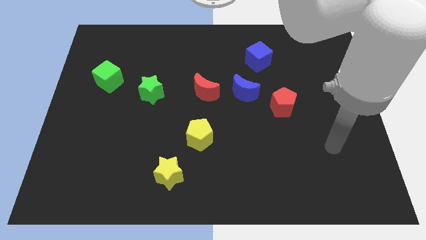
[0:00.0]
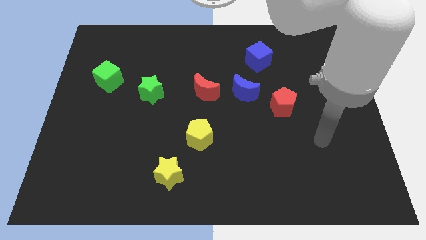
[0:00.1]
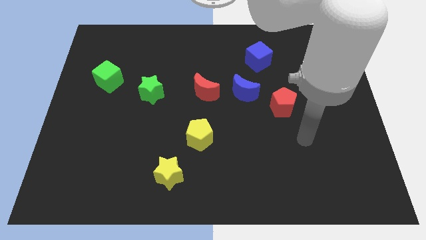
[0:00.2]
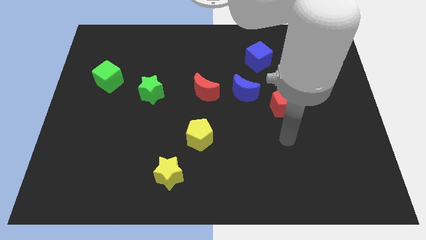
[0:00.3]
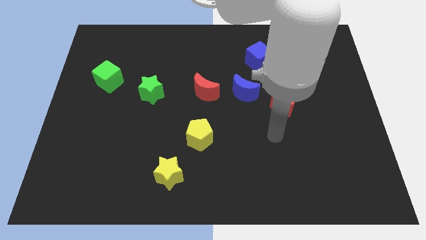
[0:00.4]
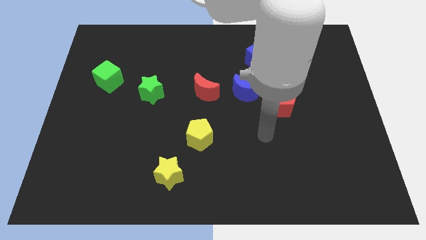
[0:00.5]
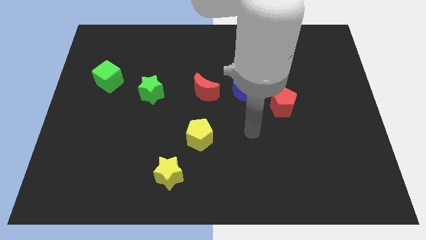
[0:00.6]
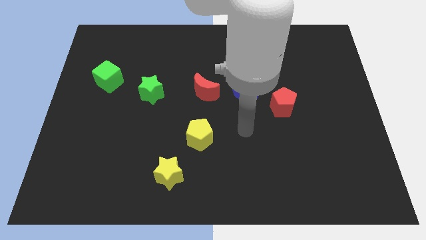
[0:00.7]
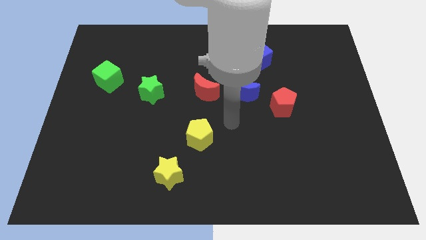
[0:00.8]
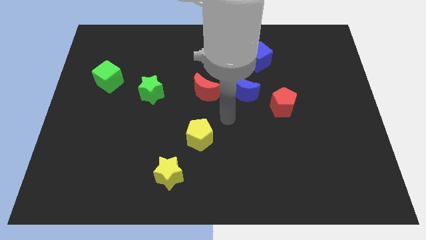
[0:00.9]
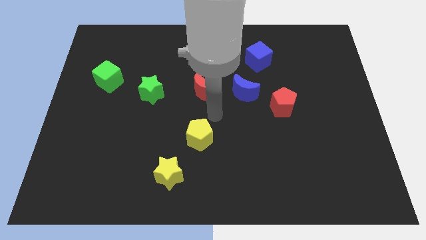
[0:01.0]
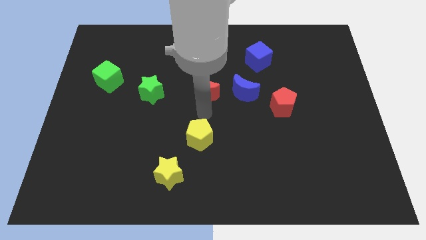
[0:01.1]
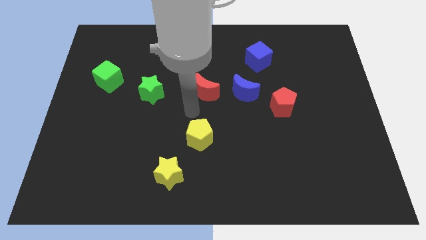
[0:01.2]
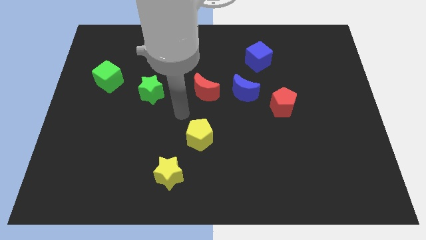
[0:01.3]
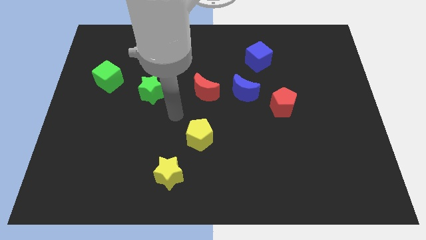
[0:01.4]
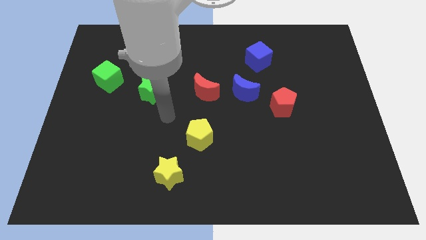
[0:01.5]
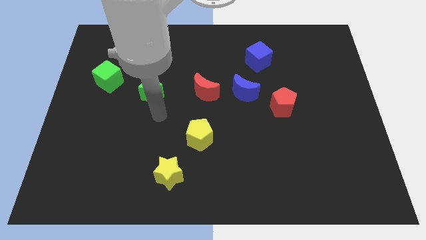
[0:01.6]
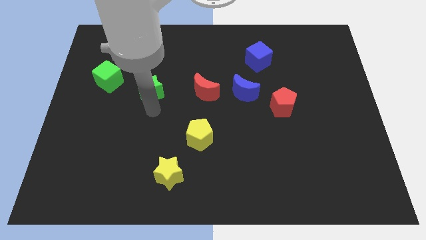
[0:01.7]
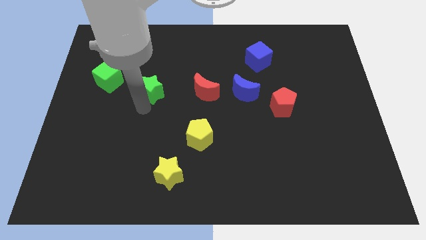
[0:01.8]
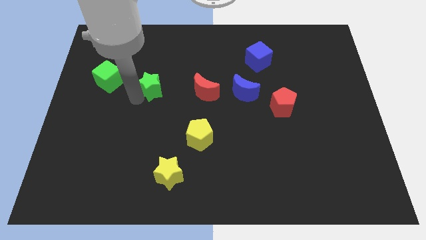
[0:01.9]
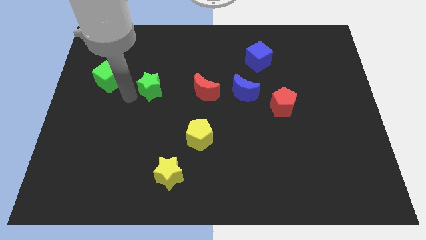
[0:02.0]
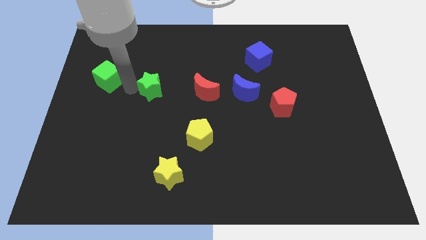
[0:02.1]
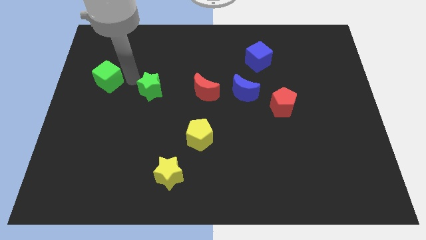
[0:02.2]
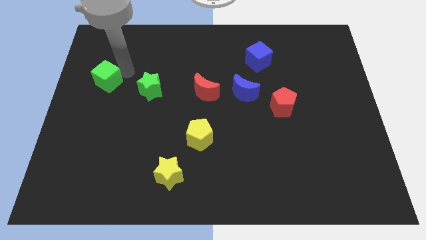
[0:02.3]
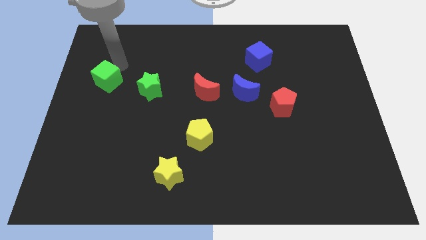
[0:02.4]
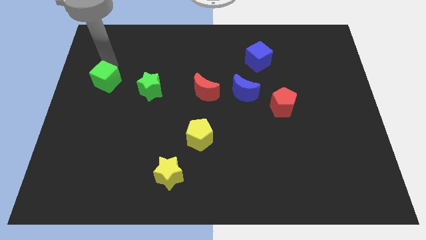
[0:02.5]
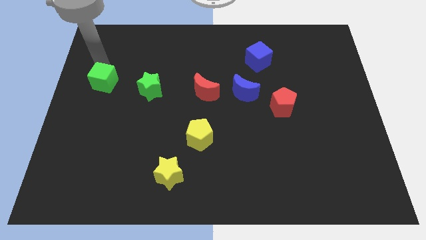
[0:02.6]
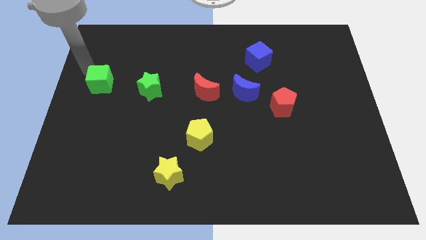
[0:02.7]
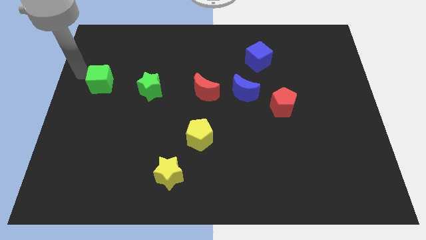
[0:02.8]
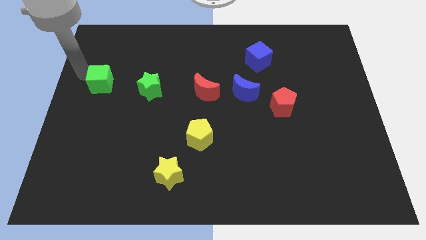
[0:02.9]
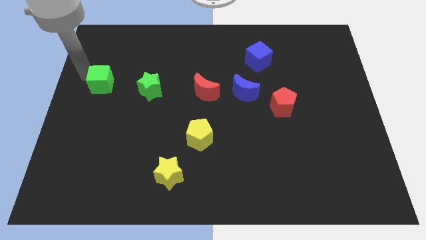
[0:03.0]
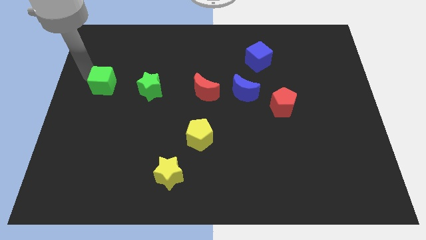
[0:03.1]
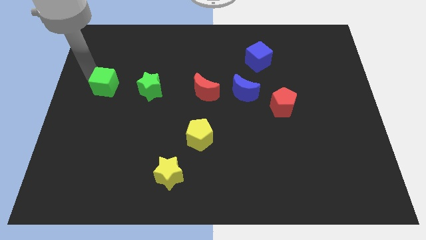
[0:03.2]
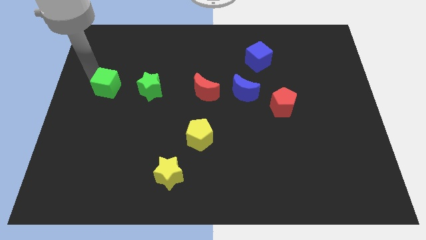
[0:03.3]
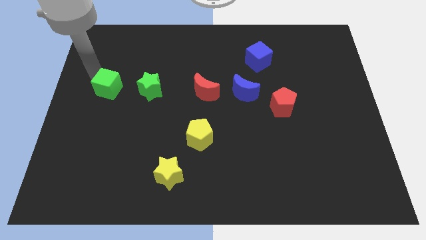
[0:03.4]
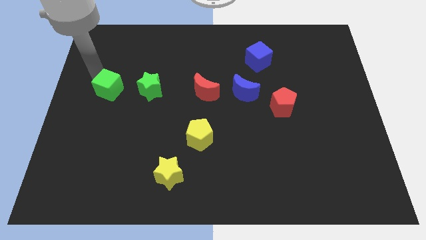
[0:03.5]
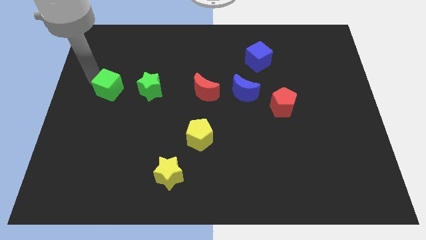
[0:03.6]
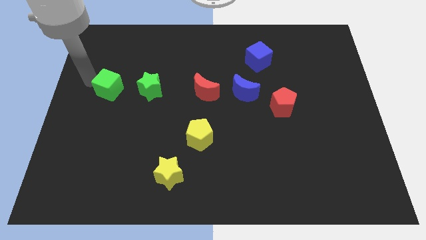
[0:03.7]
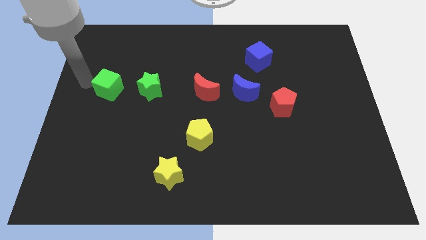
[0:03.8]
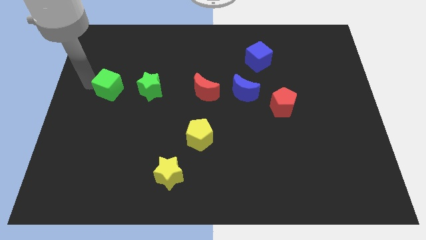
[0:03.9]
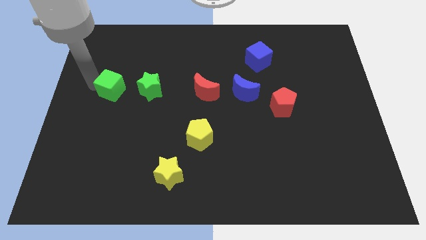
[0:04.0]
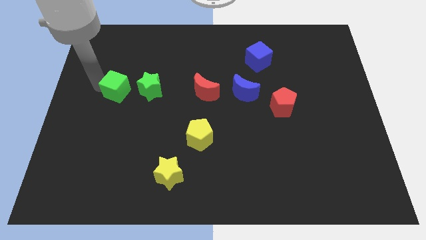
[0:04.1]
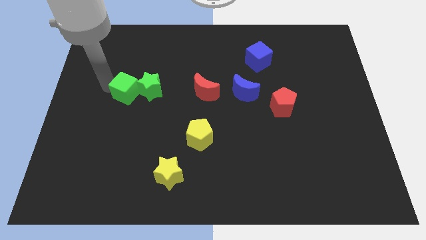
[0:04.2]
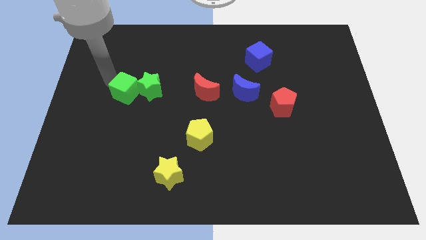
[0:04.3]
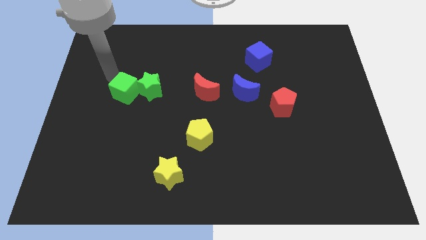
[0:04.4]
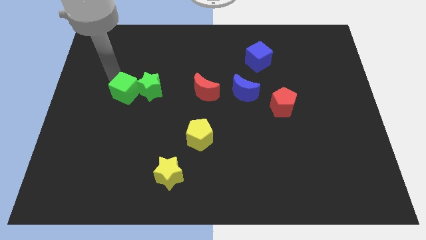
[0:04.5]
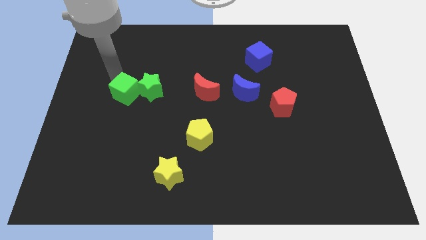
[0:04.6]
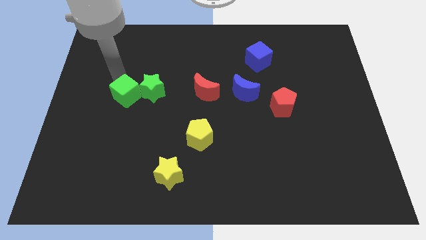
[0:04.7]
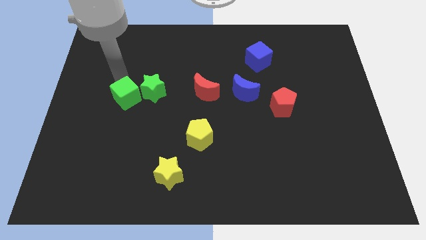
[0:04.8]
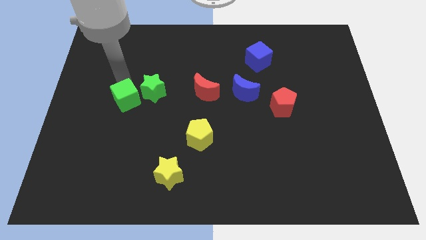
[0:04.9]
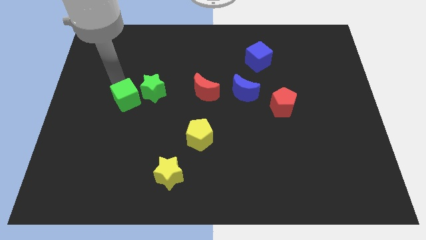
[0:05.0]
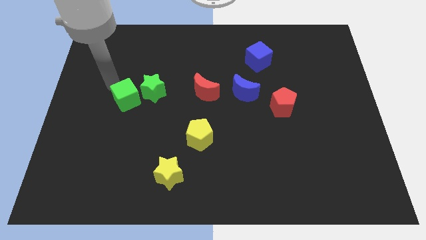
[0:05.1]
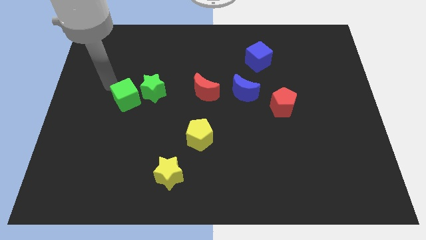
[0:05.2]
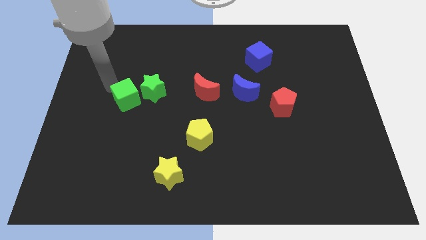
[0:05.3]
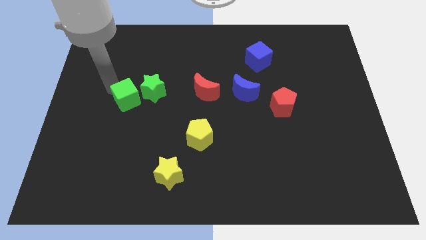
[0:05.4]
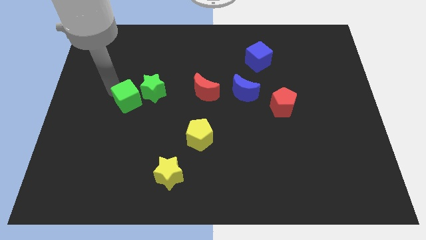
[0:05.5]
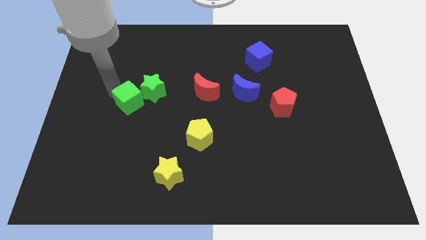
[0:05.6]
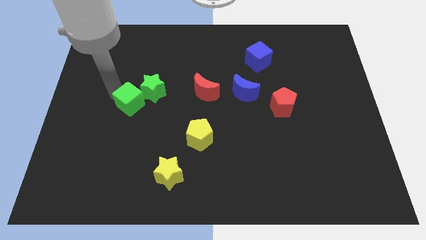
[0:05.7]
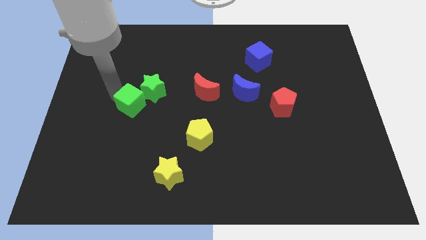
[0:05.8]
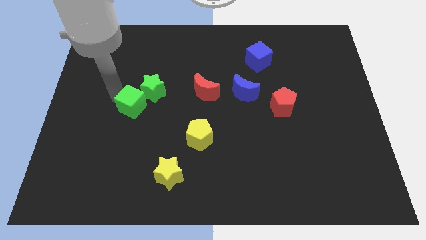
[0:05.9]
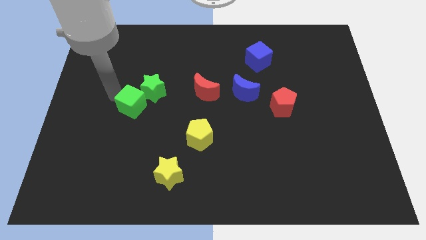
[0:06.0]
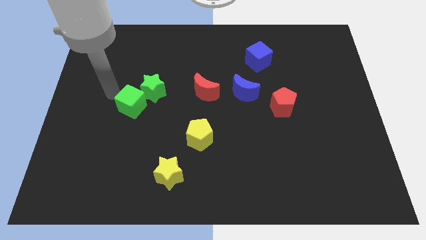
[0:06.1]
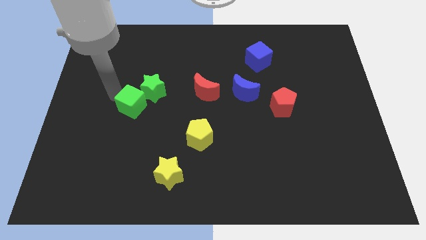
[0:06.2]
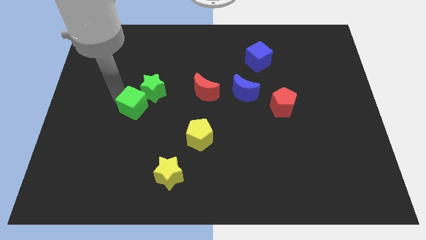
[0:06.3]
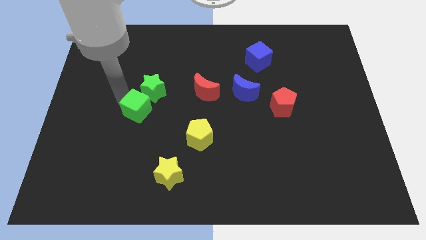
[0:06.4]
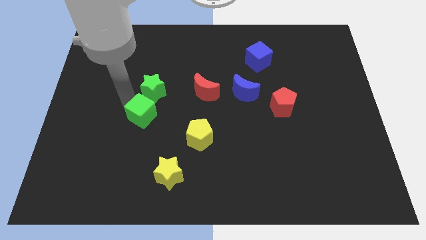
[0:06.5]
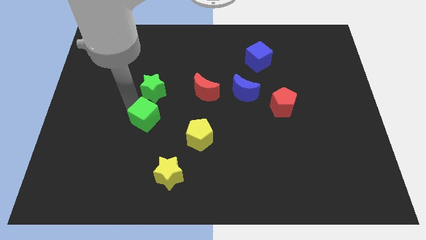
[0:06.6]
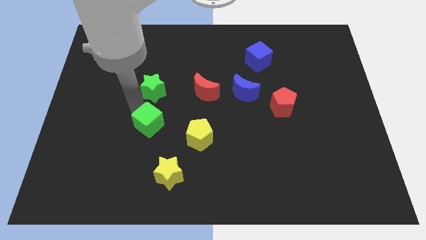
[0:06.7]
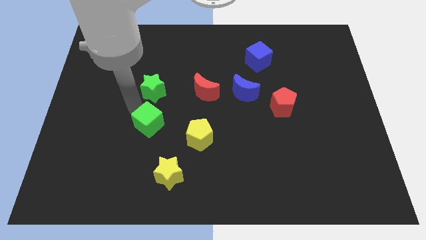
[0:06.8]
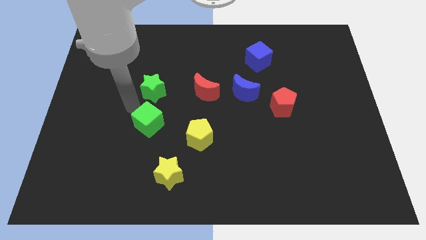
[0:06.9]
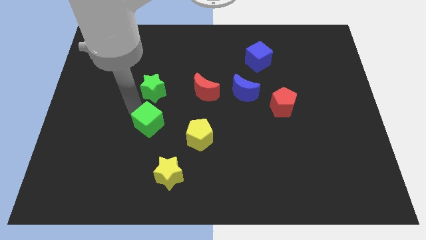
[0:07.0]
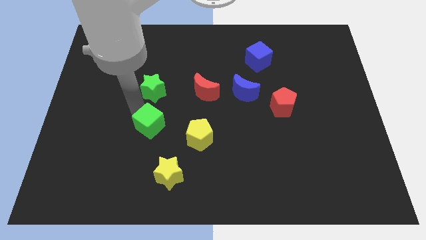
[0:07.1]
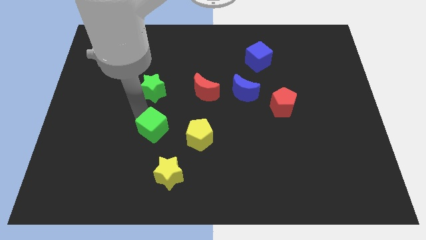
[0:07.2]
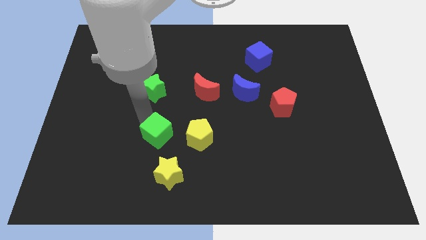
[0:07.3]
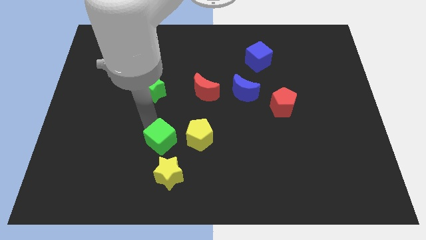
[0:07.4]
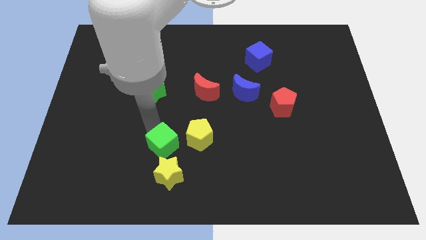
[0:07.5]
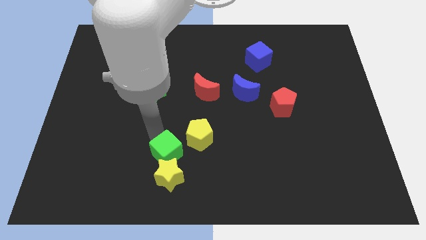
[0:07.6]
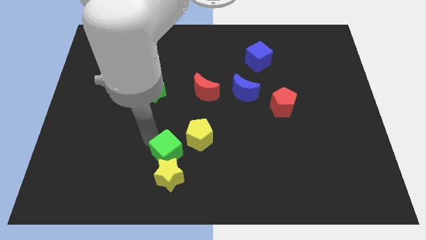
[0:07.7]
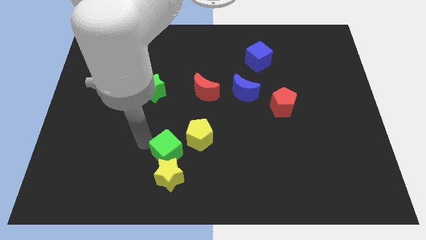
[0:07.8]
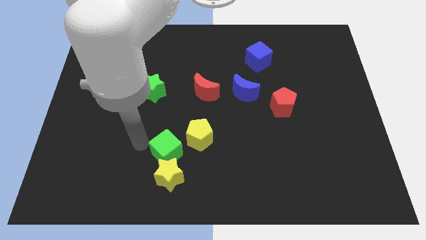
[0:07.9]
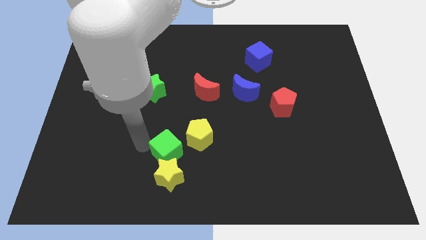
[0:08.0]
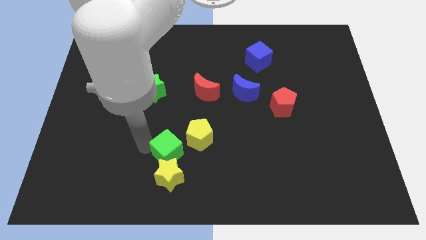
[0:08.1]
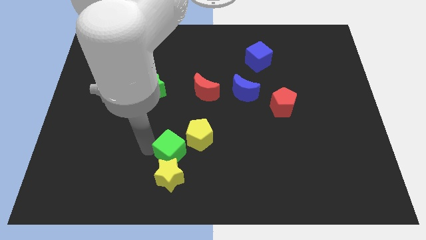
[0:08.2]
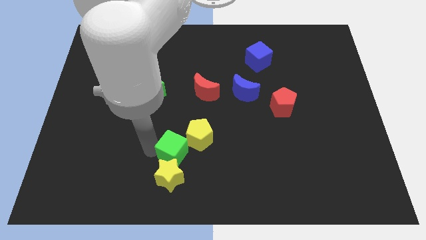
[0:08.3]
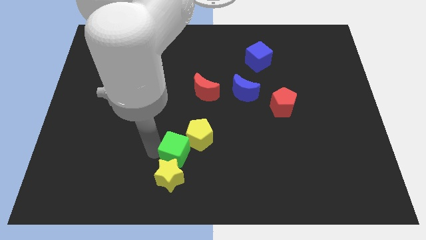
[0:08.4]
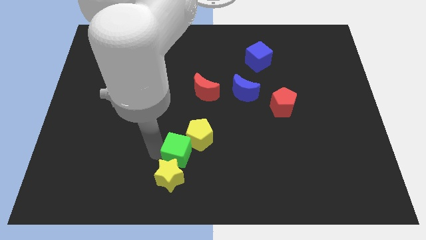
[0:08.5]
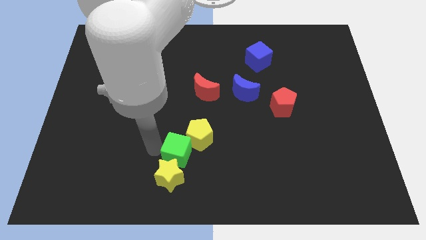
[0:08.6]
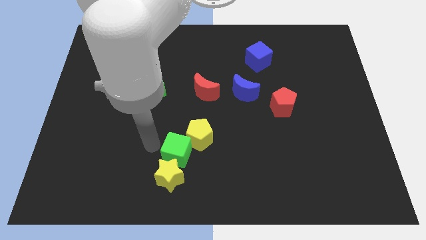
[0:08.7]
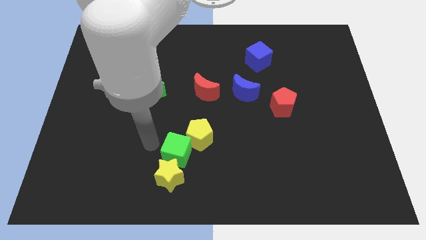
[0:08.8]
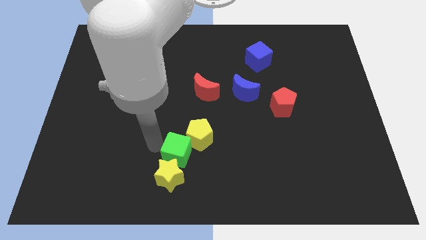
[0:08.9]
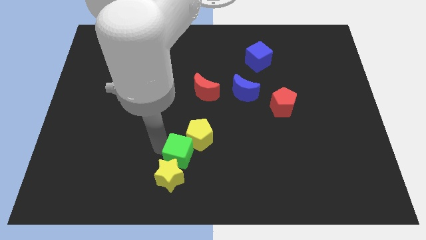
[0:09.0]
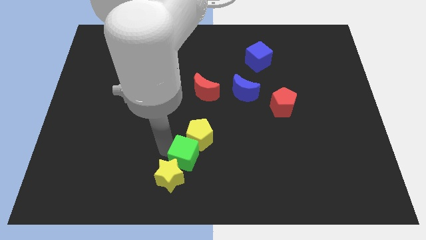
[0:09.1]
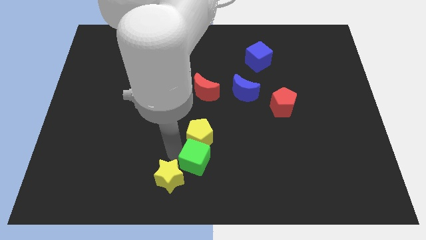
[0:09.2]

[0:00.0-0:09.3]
push the green cube to the bottom right side of the yellow pentagon
